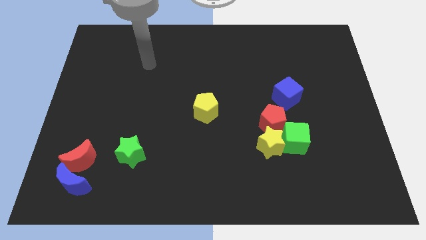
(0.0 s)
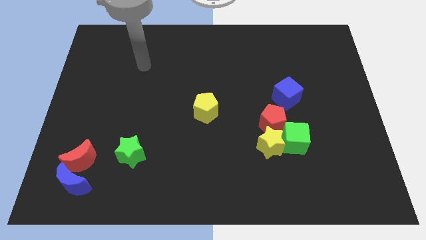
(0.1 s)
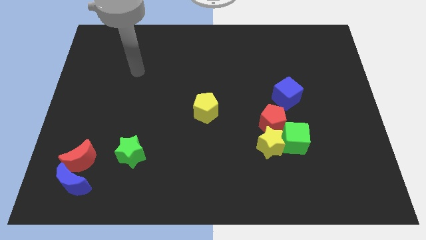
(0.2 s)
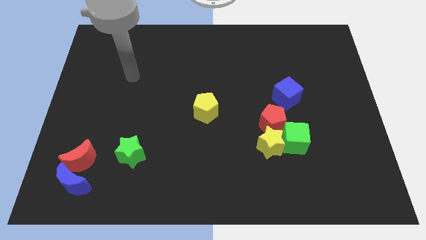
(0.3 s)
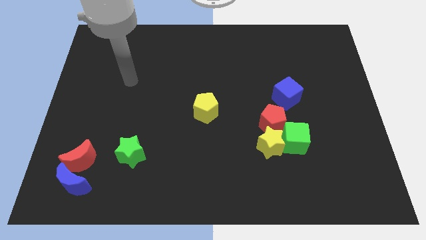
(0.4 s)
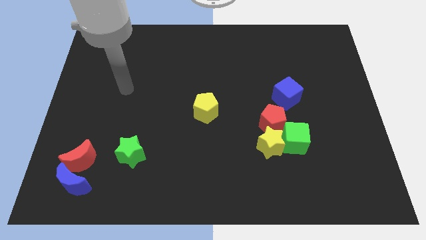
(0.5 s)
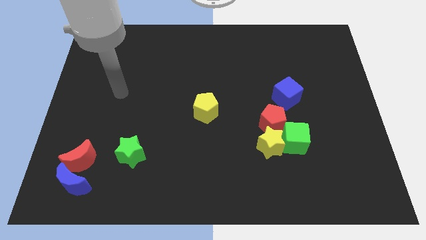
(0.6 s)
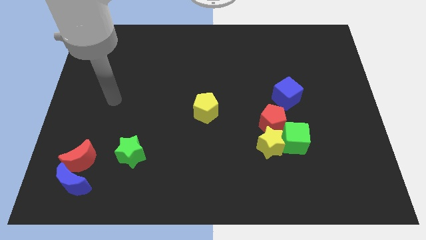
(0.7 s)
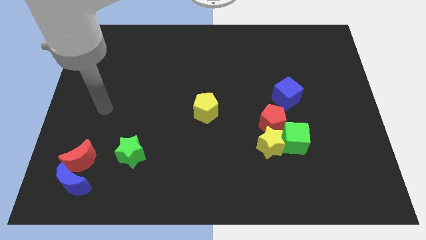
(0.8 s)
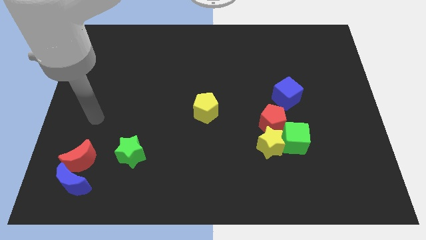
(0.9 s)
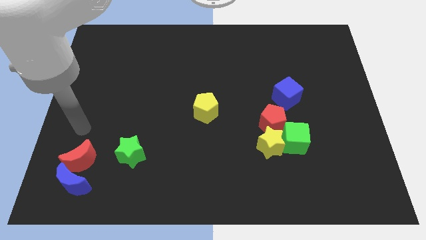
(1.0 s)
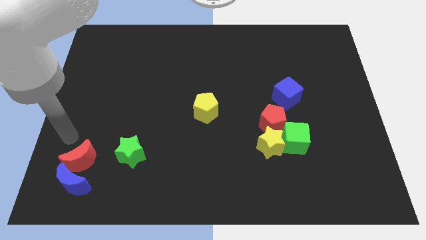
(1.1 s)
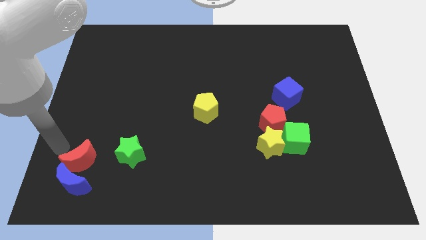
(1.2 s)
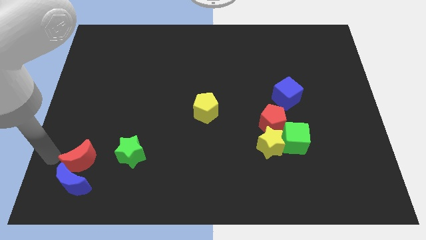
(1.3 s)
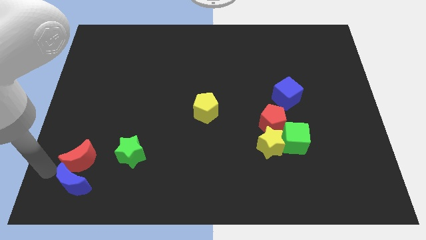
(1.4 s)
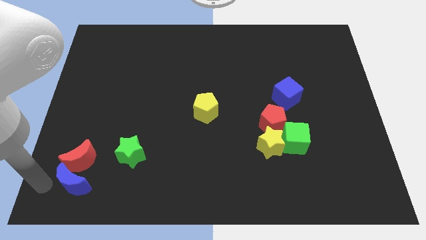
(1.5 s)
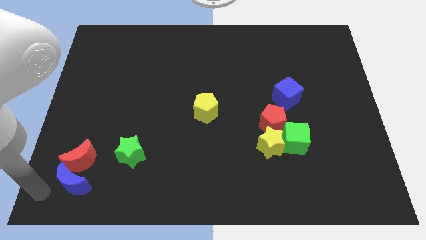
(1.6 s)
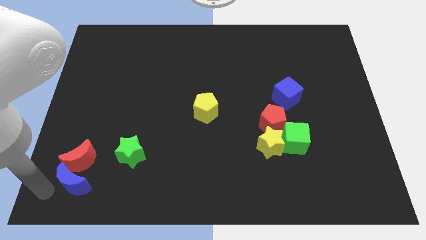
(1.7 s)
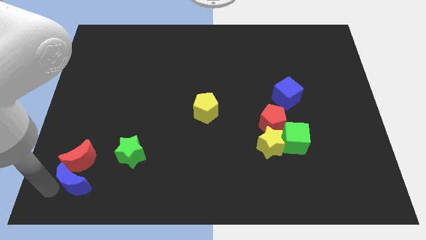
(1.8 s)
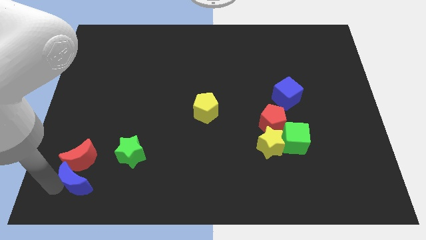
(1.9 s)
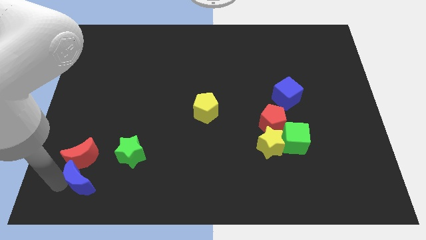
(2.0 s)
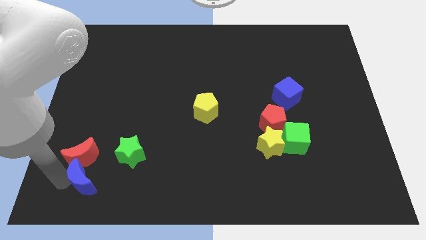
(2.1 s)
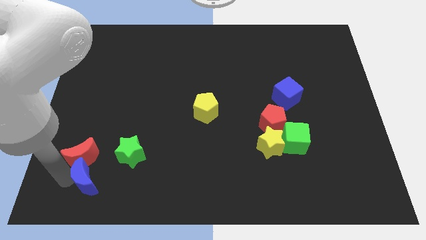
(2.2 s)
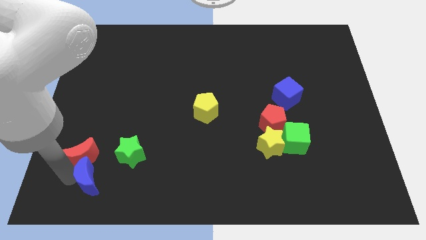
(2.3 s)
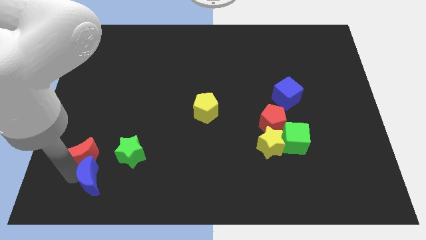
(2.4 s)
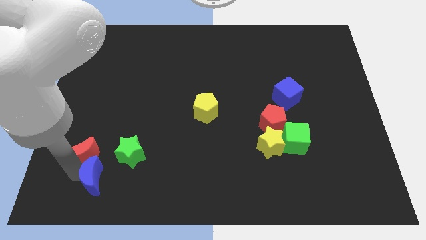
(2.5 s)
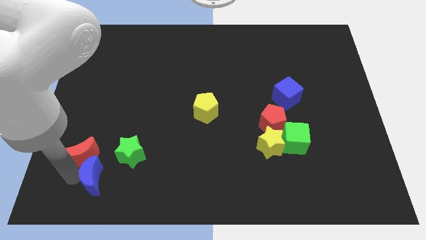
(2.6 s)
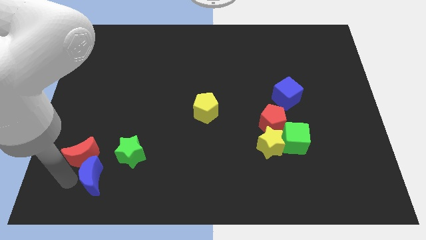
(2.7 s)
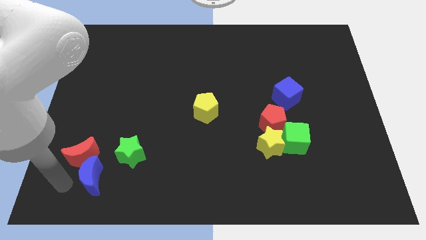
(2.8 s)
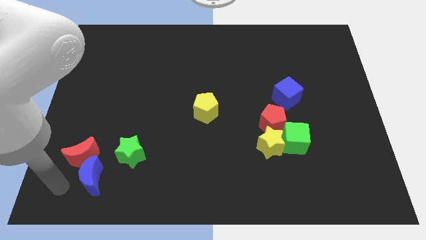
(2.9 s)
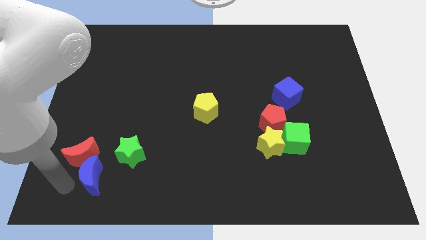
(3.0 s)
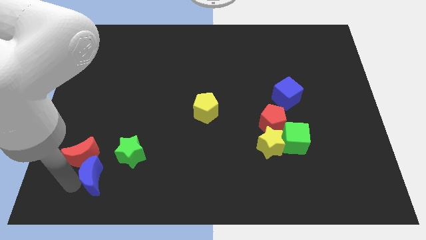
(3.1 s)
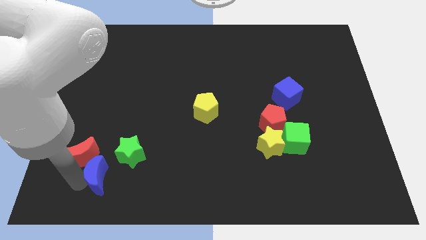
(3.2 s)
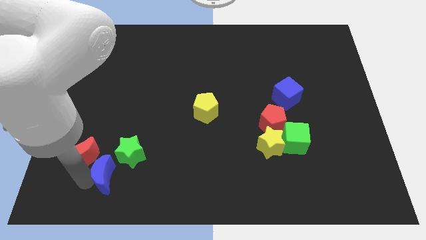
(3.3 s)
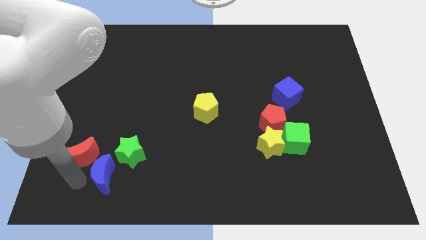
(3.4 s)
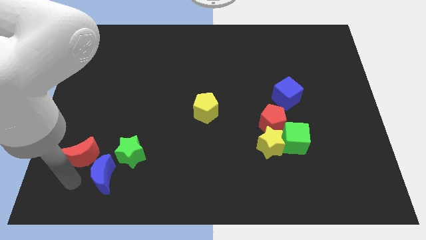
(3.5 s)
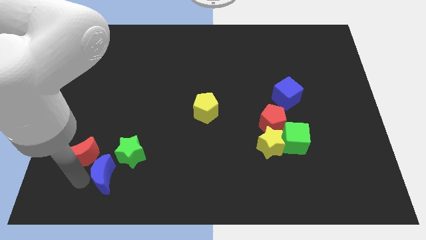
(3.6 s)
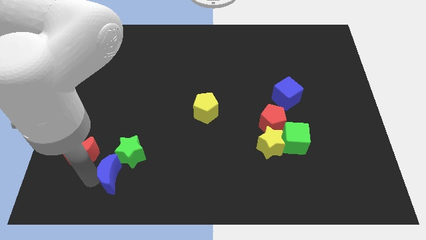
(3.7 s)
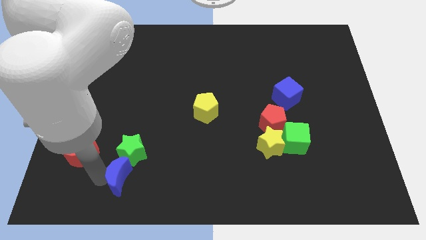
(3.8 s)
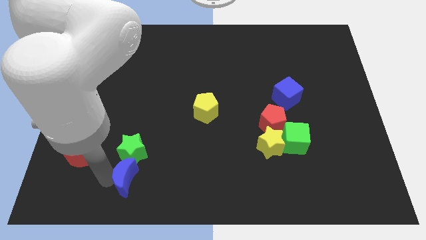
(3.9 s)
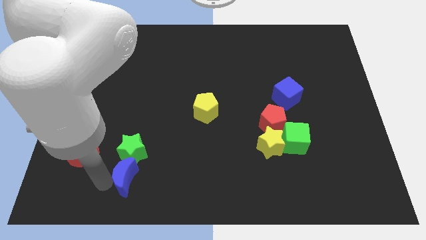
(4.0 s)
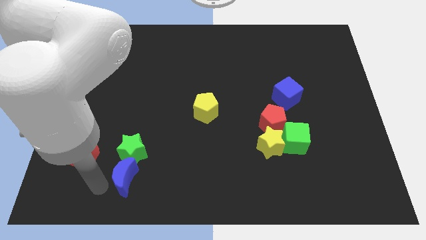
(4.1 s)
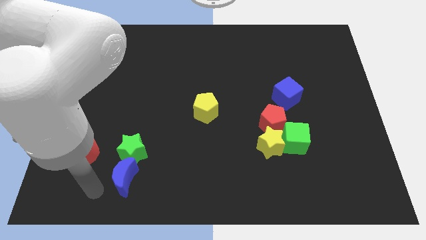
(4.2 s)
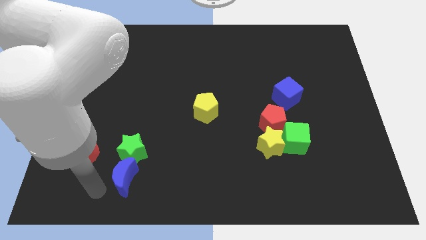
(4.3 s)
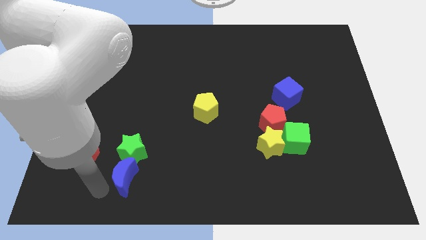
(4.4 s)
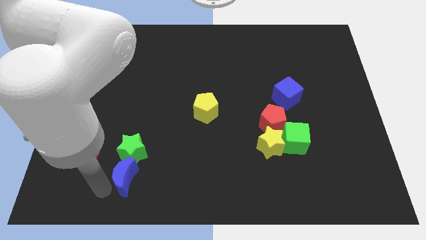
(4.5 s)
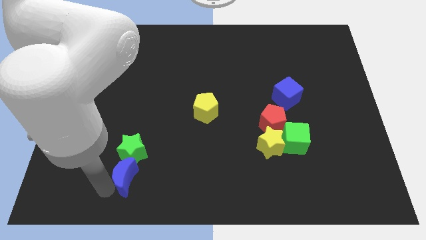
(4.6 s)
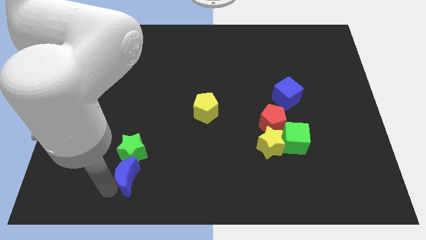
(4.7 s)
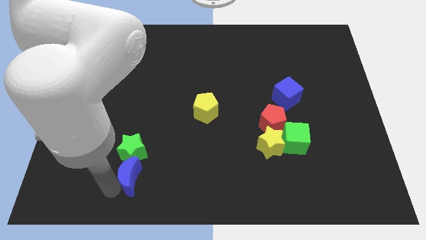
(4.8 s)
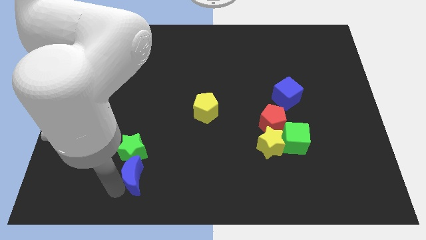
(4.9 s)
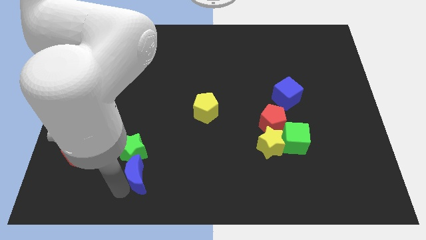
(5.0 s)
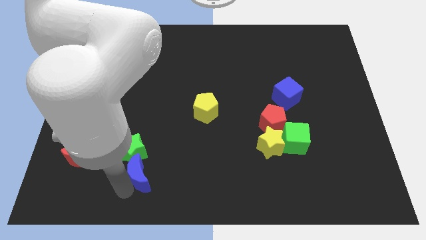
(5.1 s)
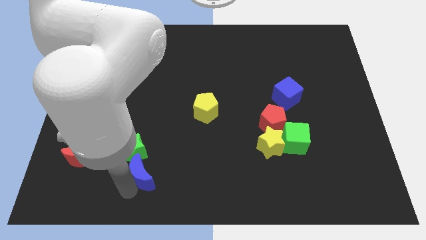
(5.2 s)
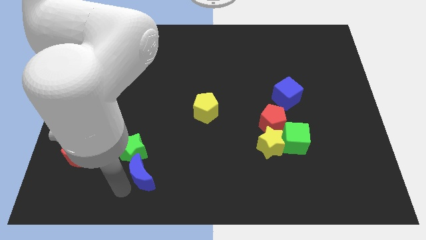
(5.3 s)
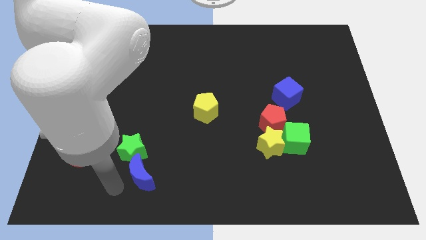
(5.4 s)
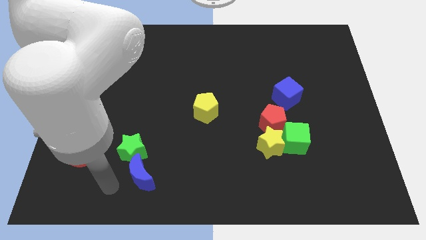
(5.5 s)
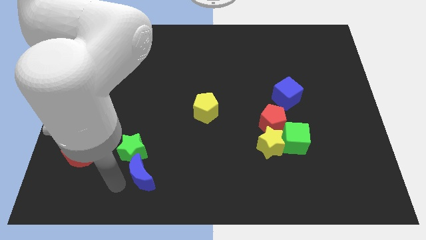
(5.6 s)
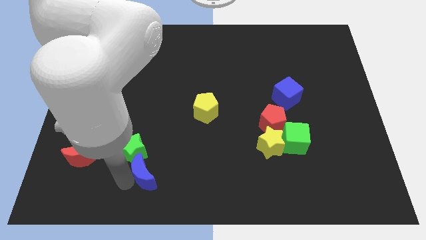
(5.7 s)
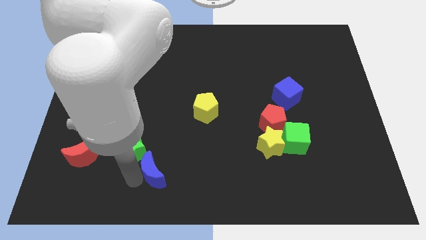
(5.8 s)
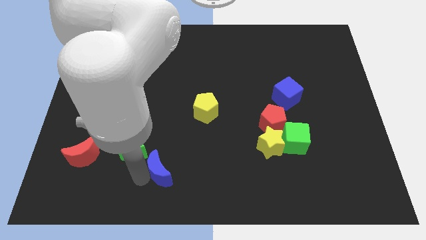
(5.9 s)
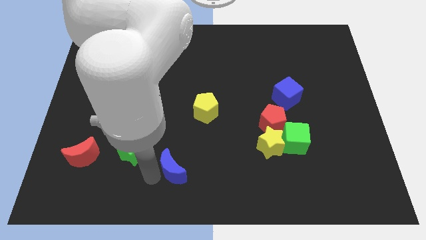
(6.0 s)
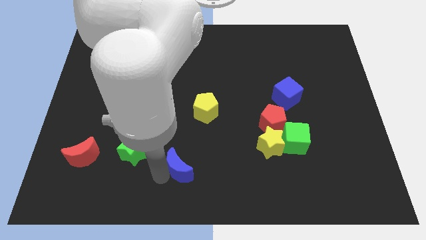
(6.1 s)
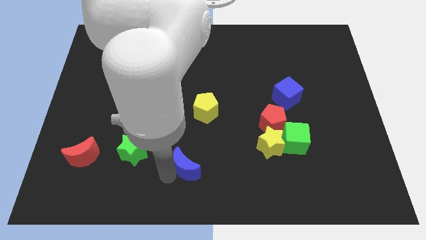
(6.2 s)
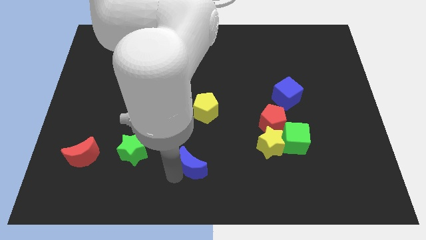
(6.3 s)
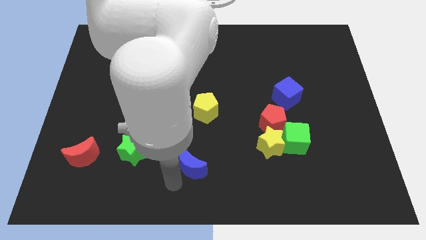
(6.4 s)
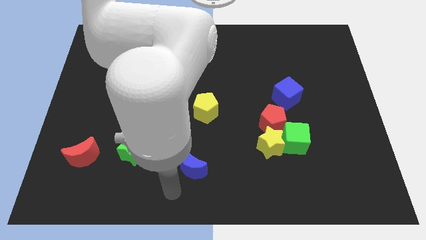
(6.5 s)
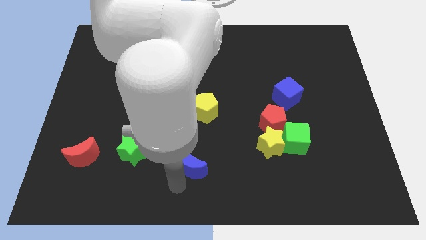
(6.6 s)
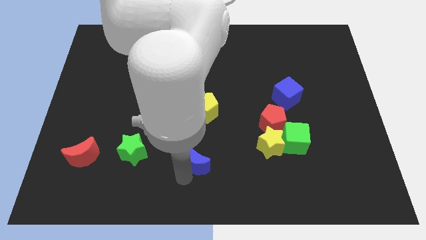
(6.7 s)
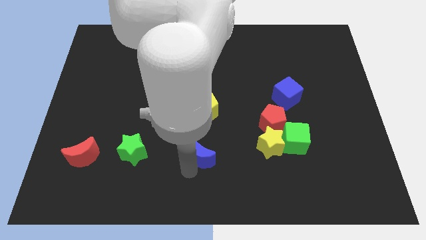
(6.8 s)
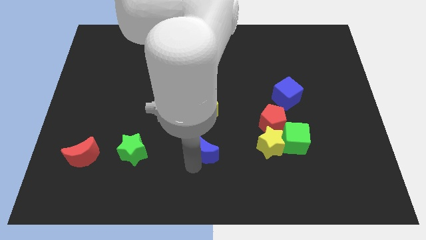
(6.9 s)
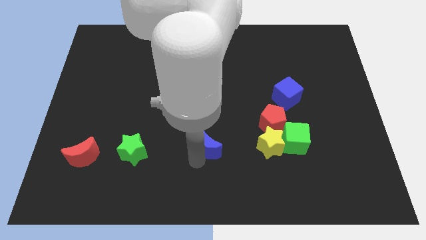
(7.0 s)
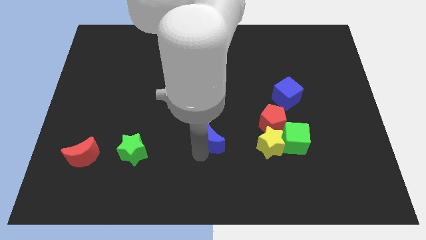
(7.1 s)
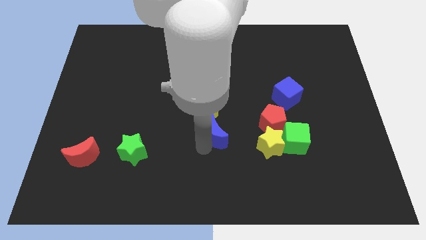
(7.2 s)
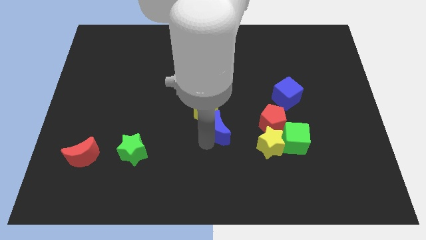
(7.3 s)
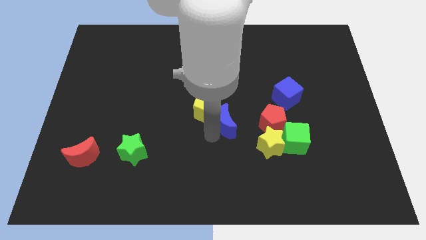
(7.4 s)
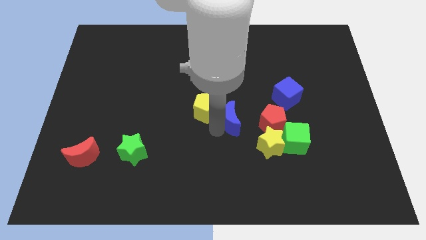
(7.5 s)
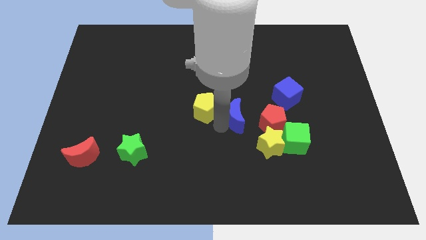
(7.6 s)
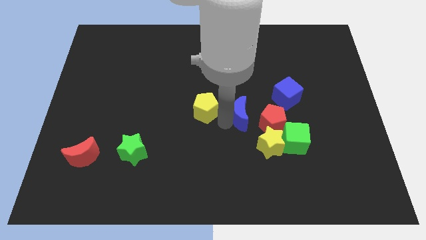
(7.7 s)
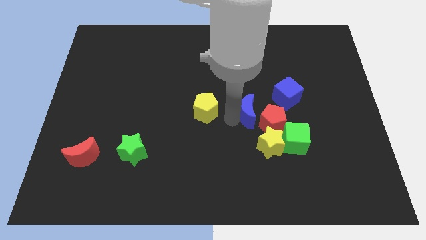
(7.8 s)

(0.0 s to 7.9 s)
push the blue moon to the top side of the yellow star
